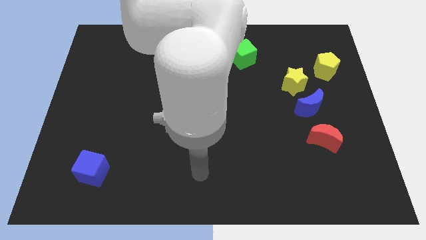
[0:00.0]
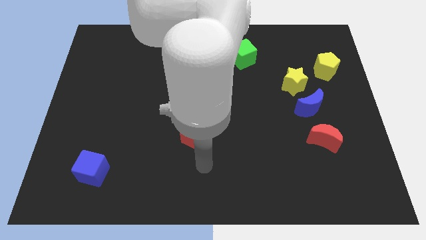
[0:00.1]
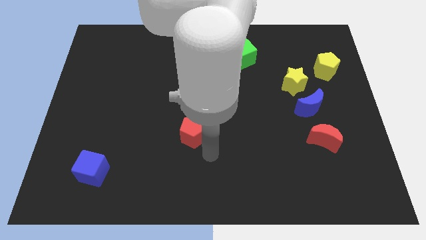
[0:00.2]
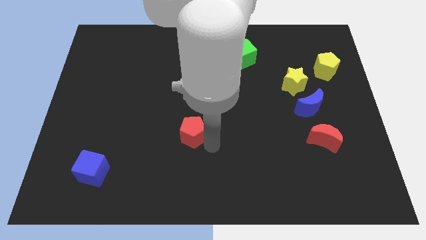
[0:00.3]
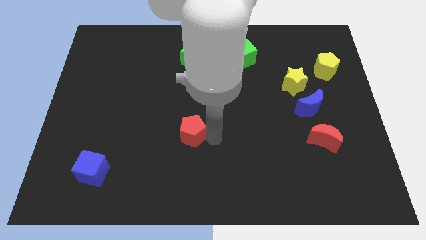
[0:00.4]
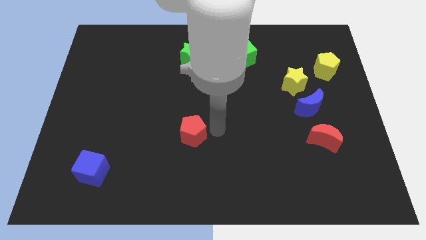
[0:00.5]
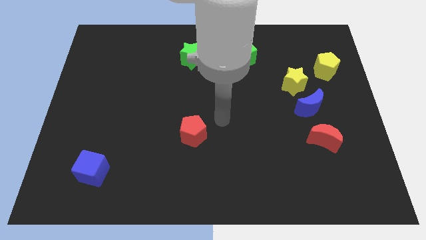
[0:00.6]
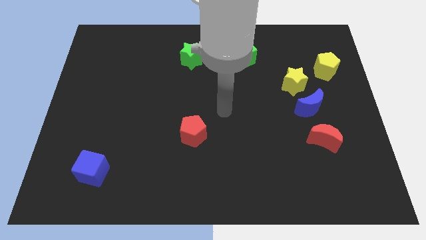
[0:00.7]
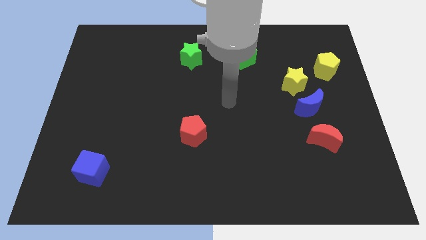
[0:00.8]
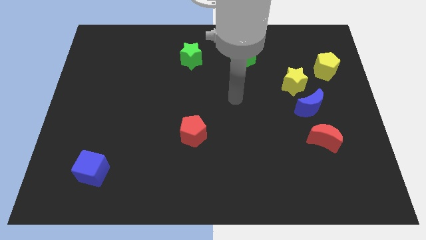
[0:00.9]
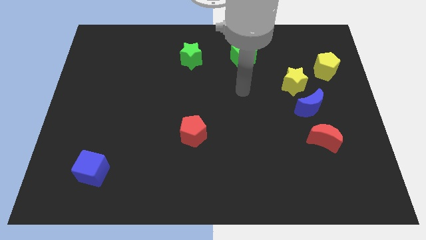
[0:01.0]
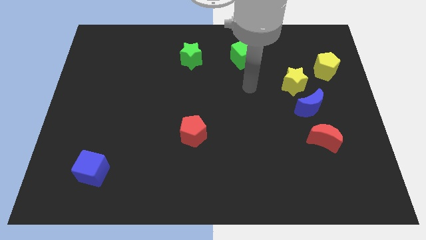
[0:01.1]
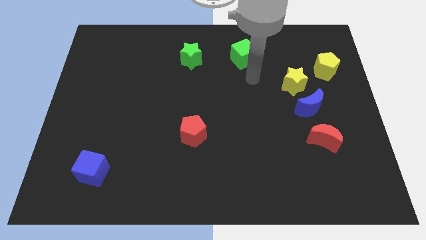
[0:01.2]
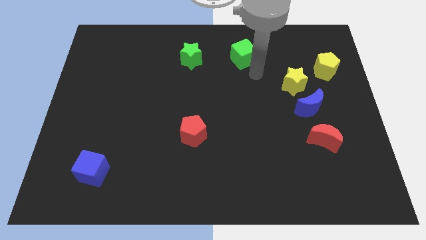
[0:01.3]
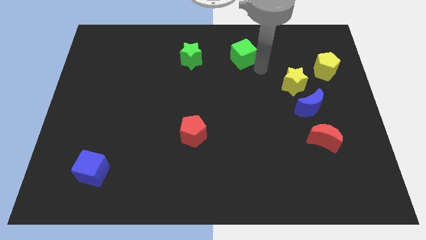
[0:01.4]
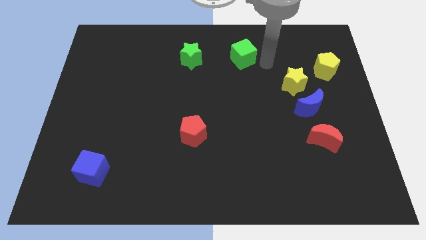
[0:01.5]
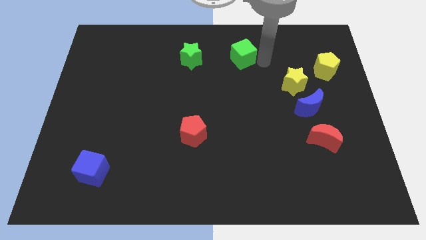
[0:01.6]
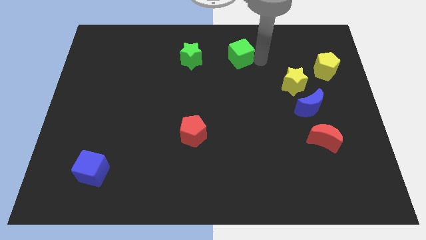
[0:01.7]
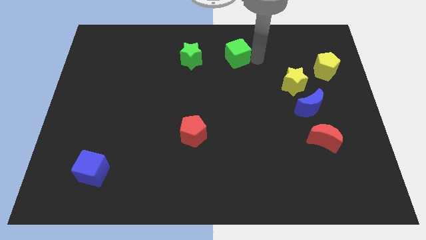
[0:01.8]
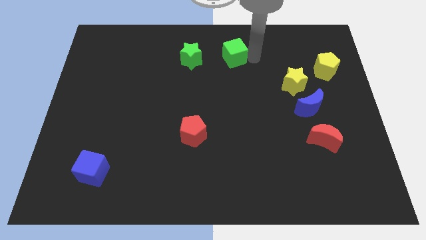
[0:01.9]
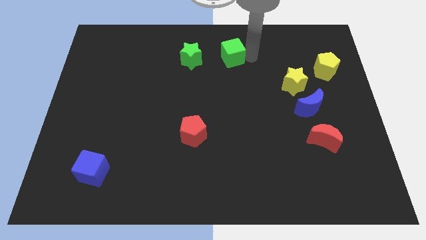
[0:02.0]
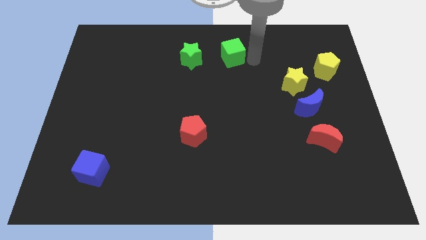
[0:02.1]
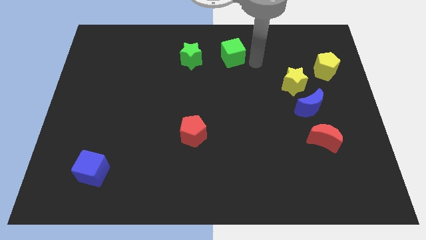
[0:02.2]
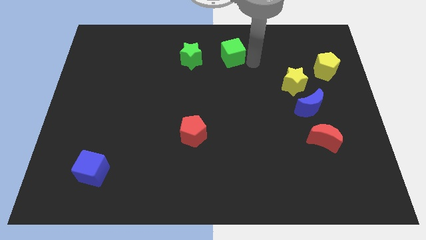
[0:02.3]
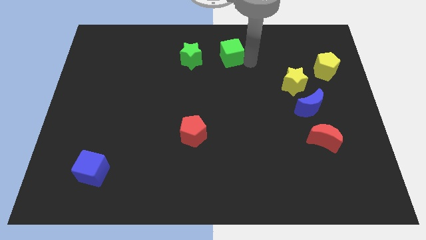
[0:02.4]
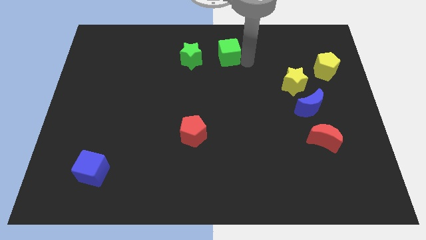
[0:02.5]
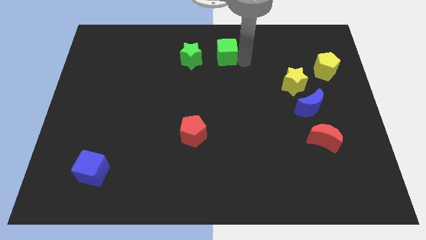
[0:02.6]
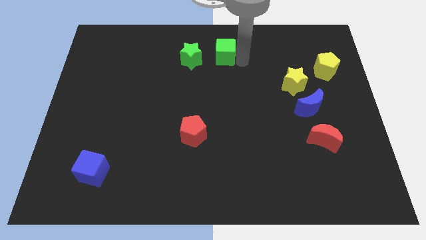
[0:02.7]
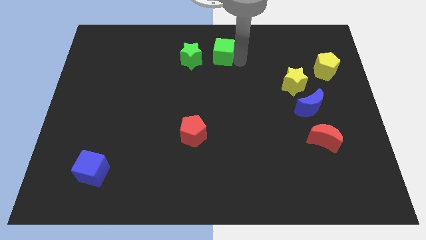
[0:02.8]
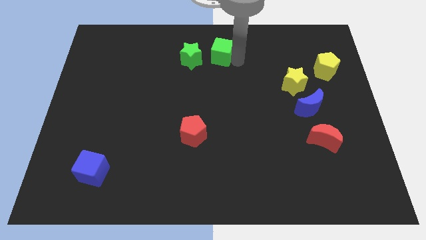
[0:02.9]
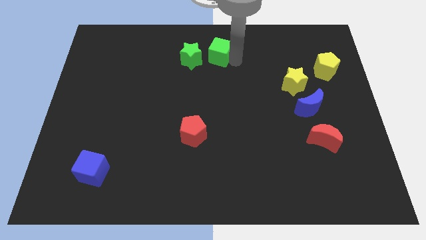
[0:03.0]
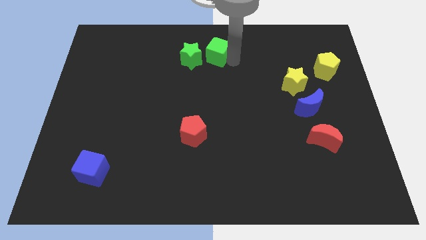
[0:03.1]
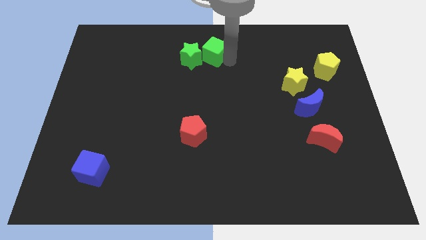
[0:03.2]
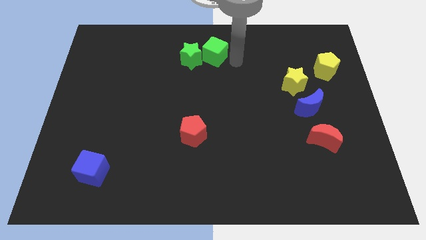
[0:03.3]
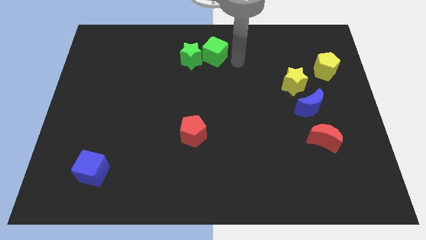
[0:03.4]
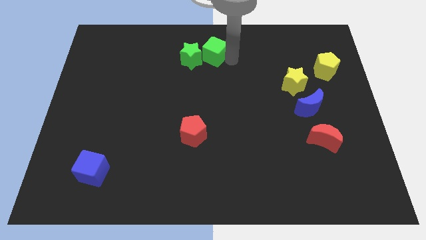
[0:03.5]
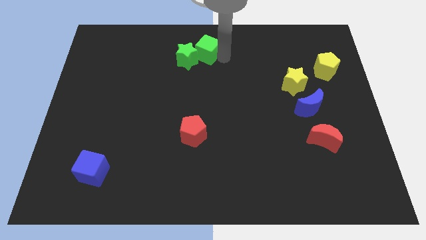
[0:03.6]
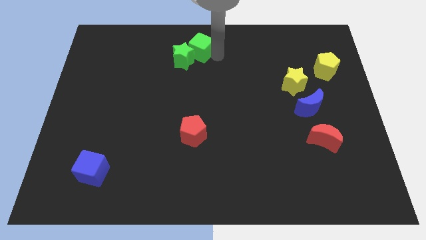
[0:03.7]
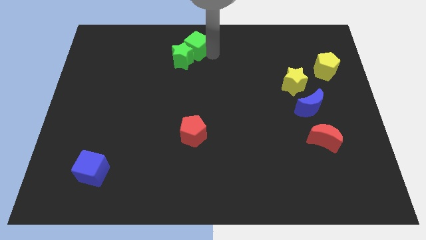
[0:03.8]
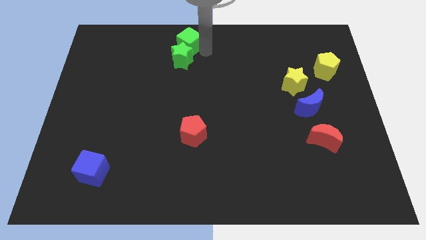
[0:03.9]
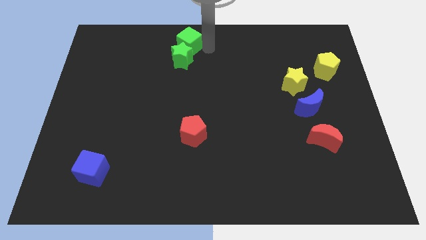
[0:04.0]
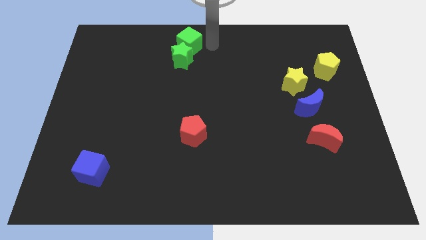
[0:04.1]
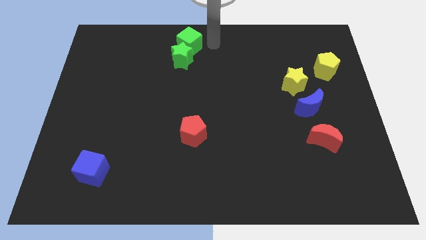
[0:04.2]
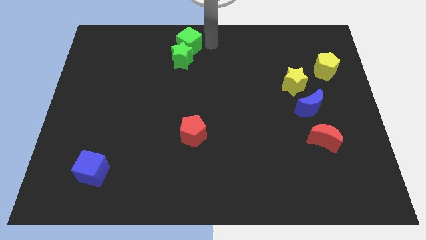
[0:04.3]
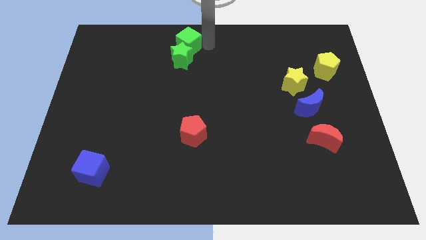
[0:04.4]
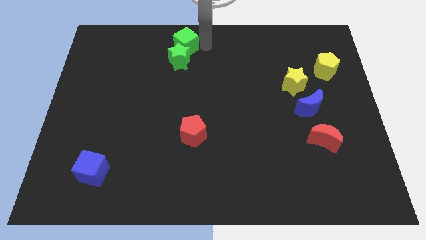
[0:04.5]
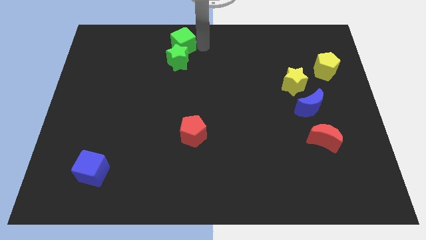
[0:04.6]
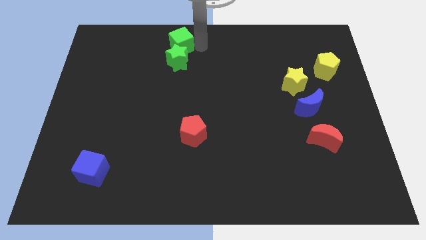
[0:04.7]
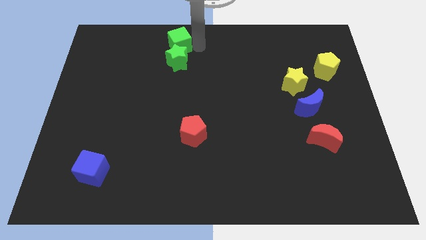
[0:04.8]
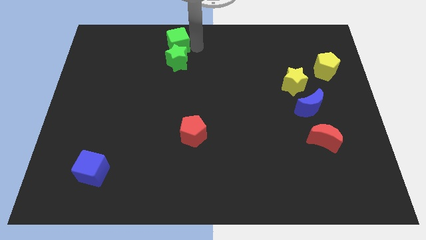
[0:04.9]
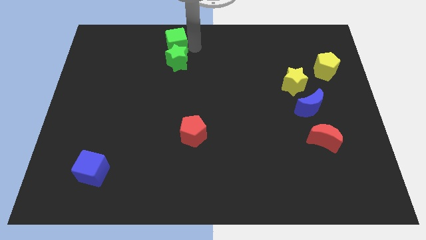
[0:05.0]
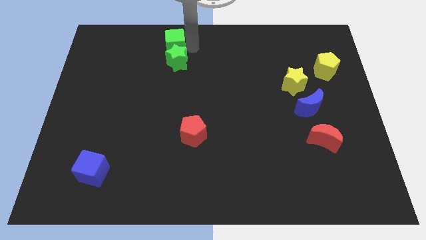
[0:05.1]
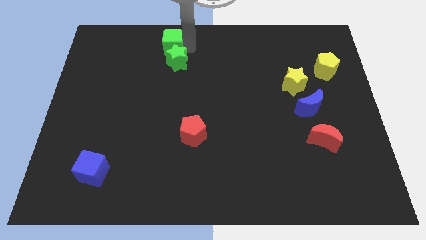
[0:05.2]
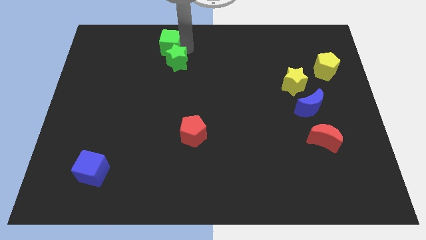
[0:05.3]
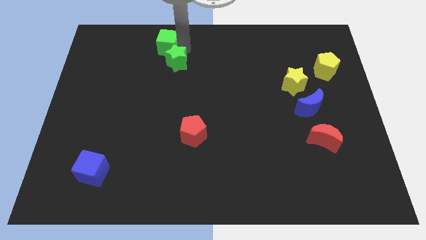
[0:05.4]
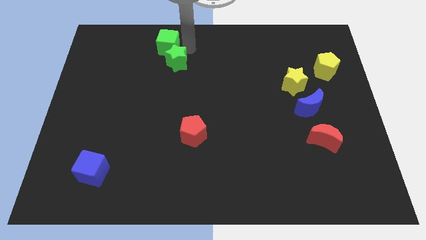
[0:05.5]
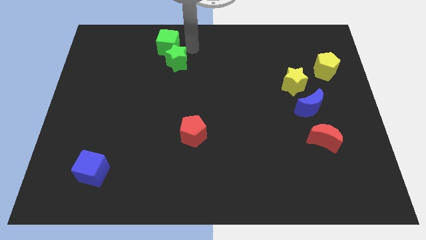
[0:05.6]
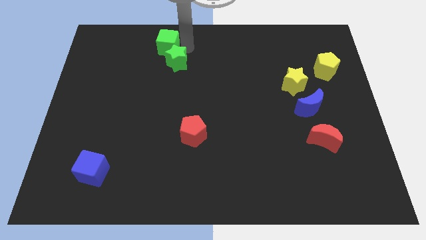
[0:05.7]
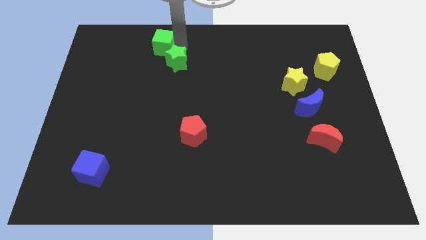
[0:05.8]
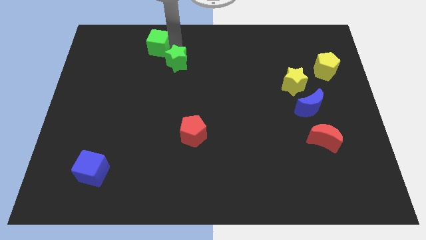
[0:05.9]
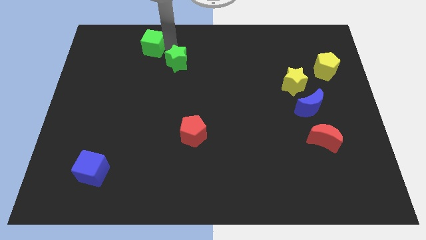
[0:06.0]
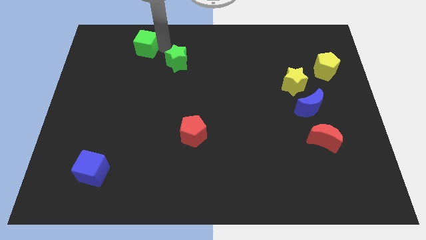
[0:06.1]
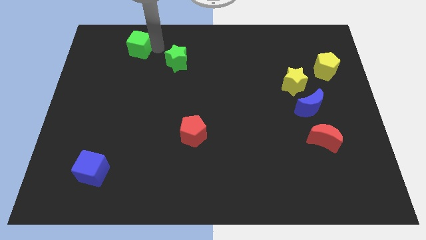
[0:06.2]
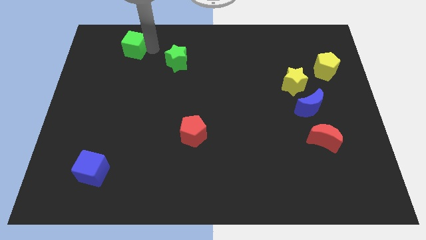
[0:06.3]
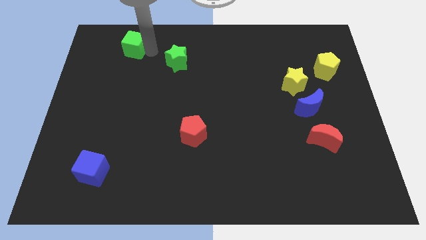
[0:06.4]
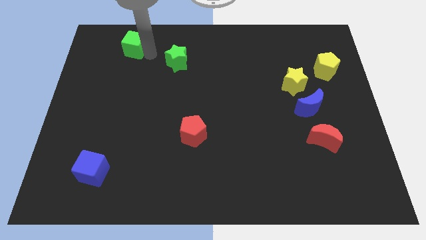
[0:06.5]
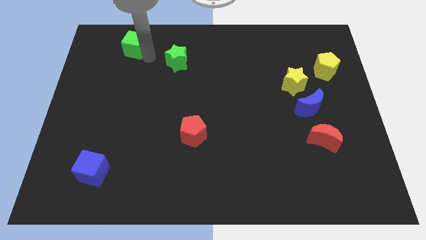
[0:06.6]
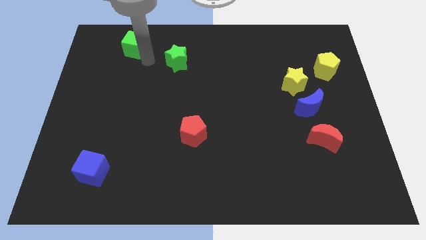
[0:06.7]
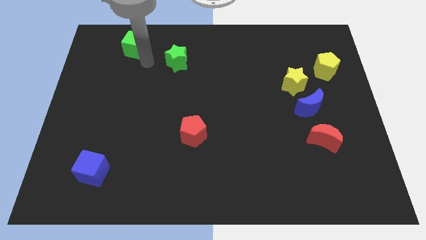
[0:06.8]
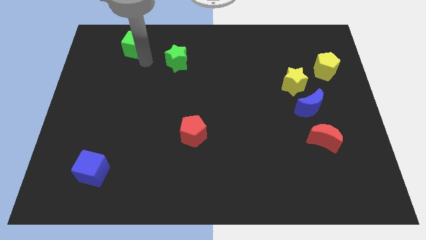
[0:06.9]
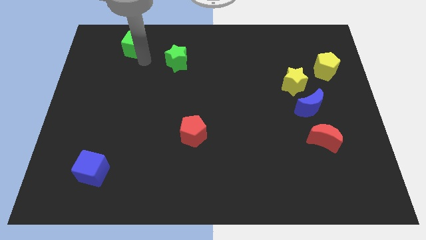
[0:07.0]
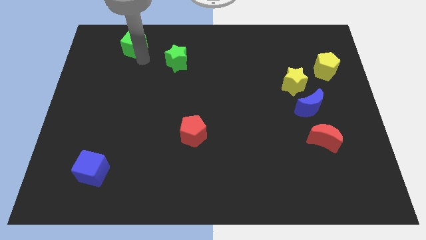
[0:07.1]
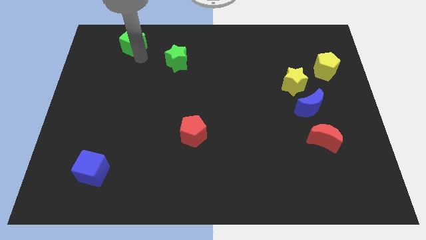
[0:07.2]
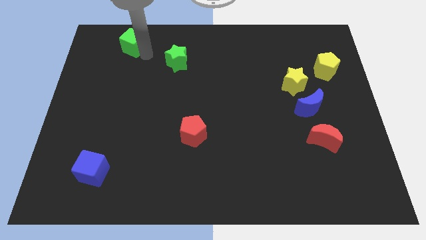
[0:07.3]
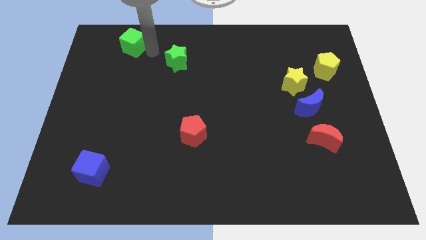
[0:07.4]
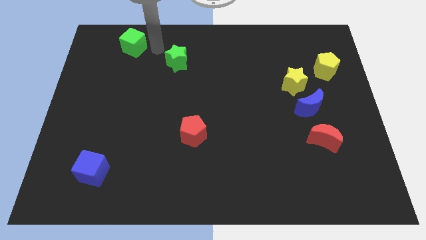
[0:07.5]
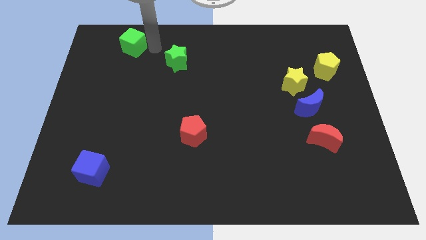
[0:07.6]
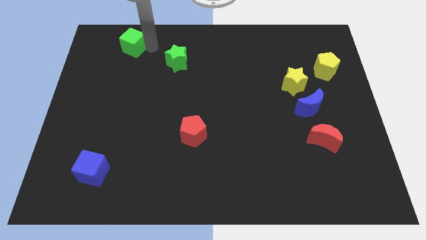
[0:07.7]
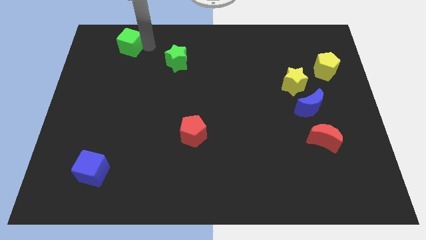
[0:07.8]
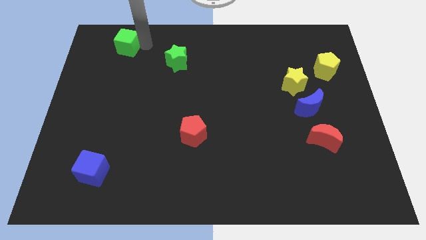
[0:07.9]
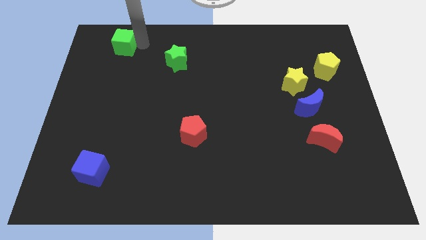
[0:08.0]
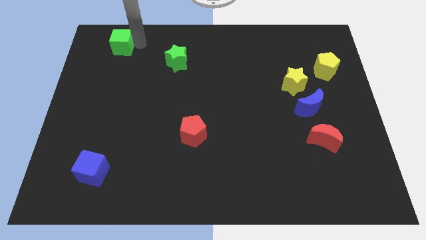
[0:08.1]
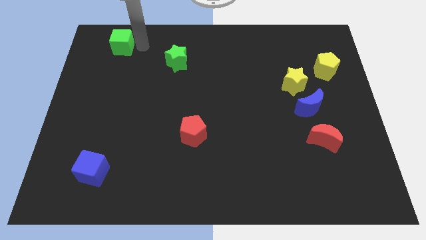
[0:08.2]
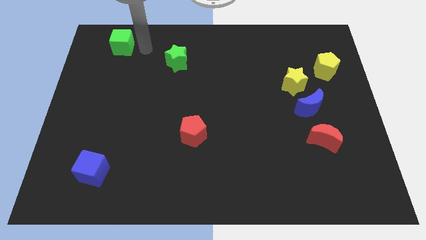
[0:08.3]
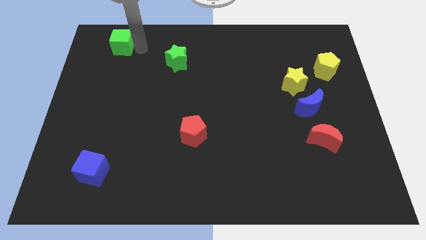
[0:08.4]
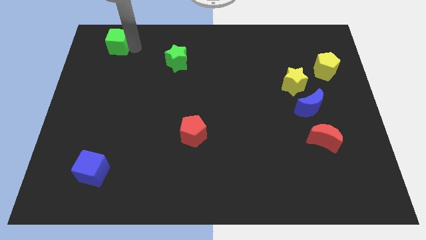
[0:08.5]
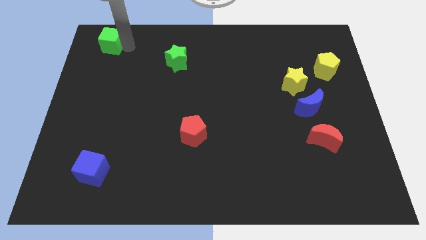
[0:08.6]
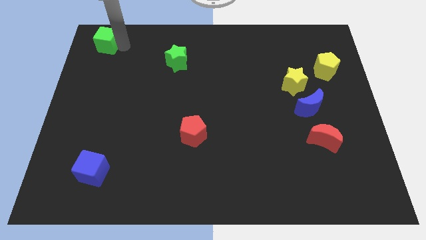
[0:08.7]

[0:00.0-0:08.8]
move the green cube to the upper left corner
